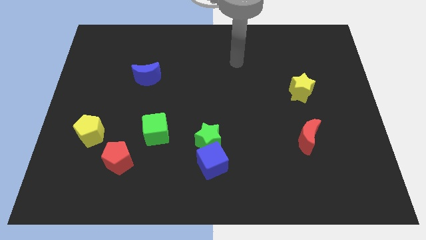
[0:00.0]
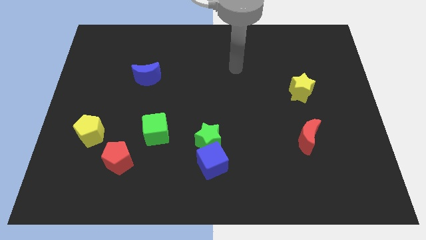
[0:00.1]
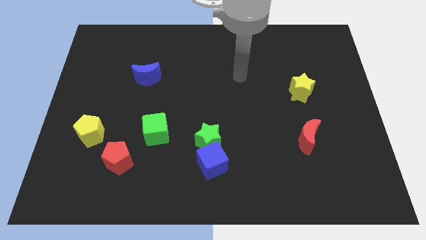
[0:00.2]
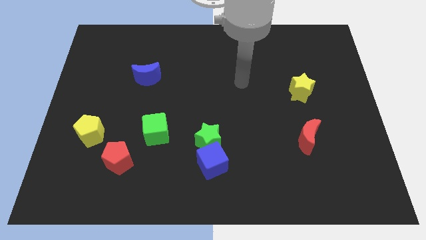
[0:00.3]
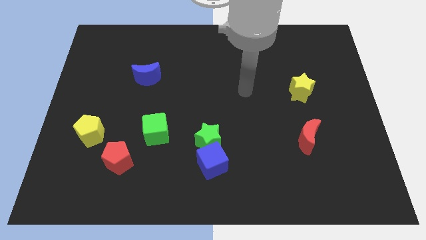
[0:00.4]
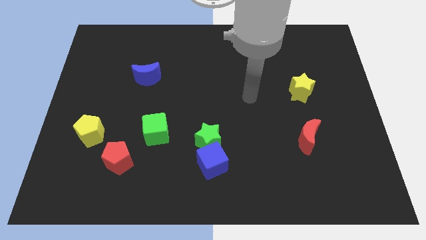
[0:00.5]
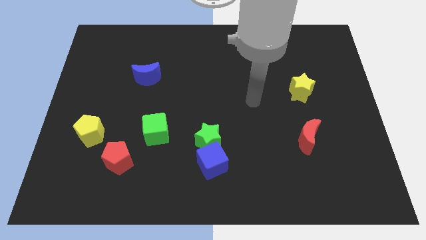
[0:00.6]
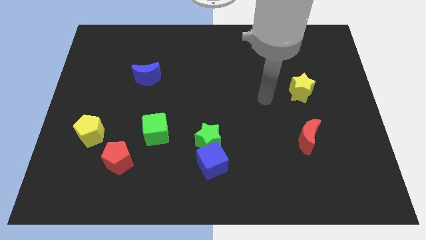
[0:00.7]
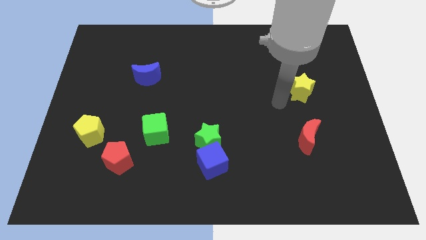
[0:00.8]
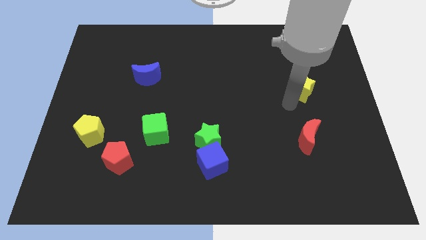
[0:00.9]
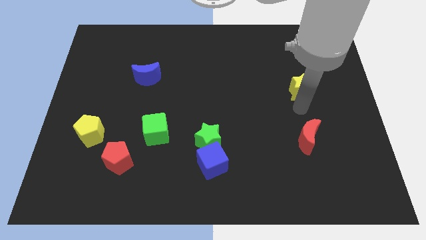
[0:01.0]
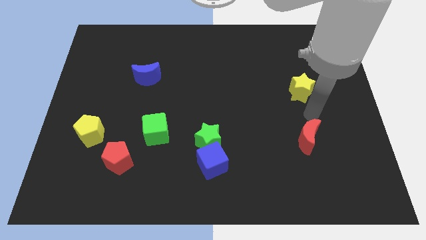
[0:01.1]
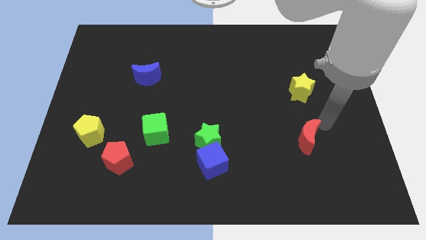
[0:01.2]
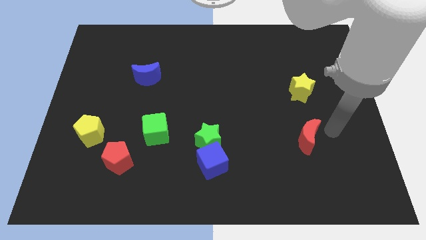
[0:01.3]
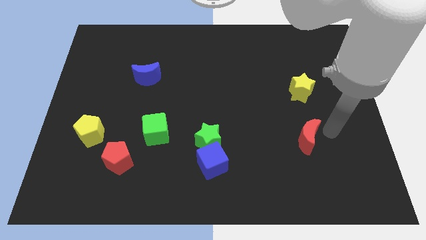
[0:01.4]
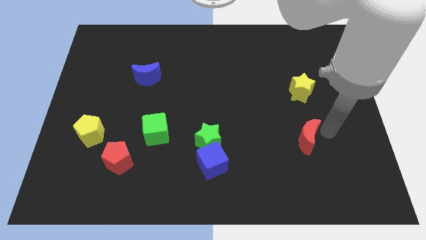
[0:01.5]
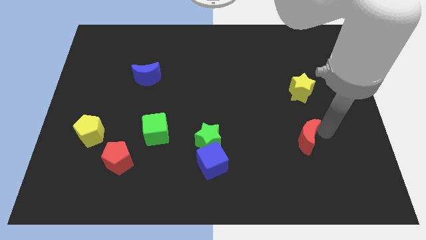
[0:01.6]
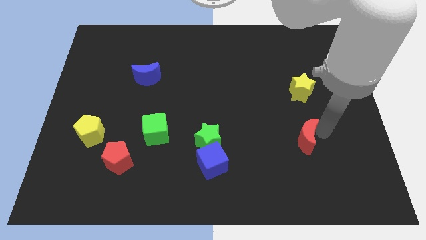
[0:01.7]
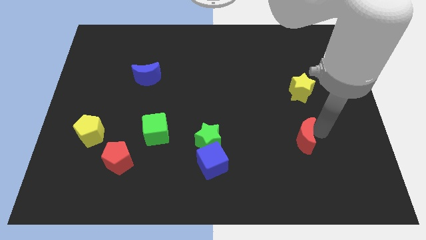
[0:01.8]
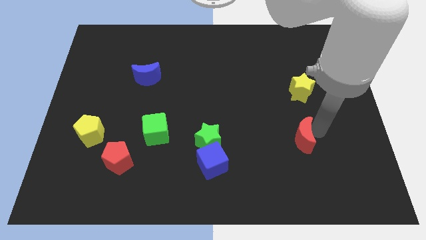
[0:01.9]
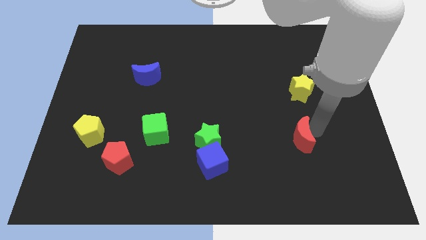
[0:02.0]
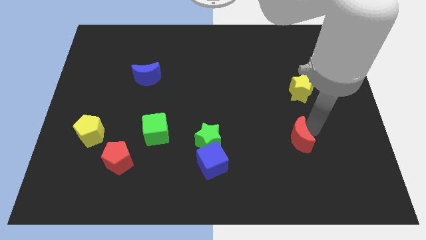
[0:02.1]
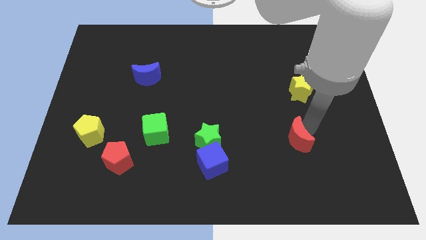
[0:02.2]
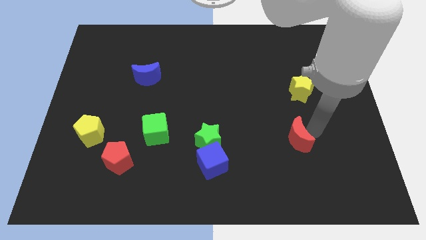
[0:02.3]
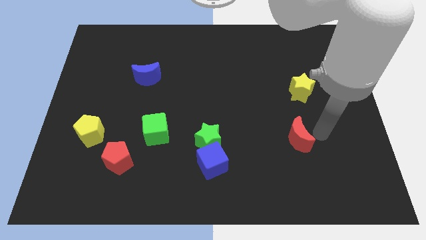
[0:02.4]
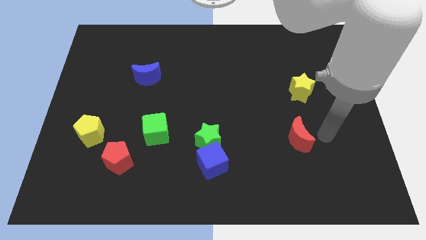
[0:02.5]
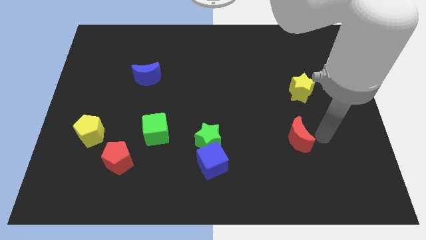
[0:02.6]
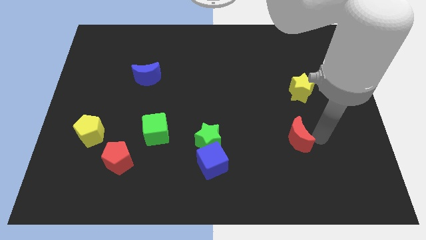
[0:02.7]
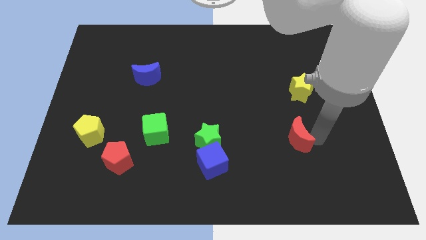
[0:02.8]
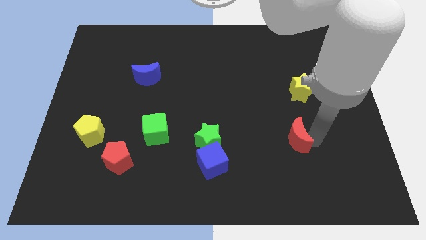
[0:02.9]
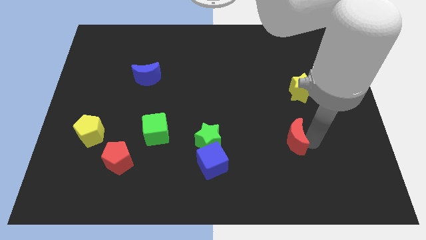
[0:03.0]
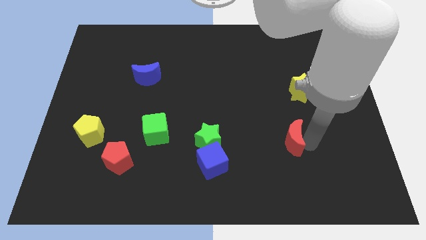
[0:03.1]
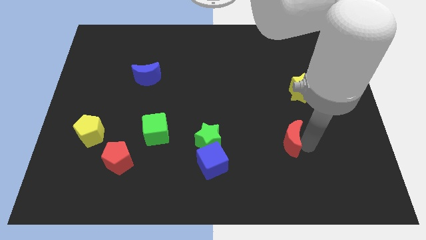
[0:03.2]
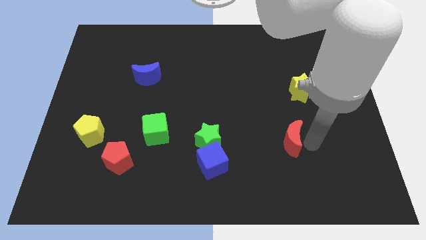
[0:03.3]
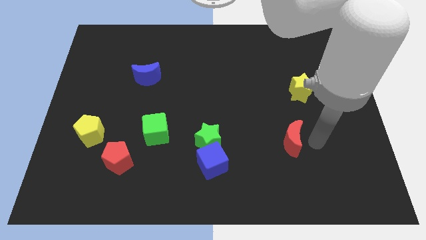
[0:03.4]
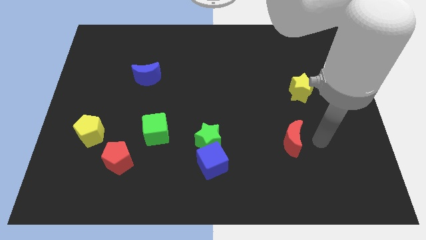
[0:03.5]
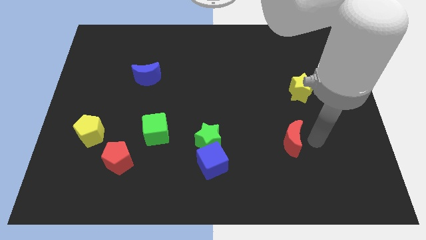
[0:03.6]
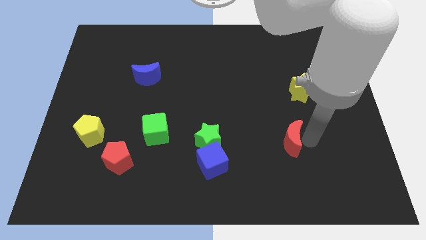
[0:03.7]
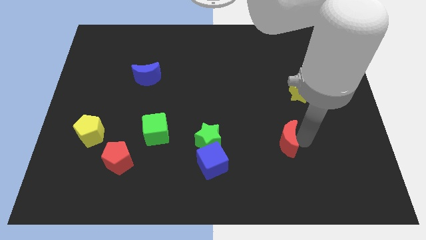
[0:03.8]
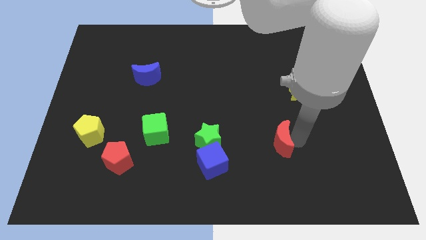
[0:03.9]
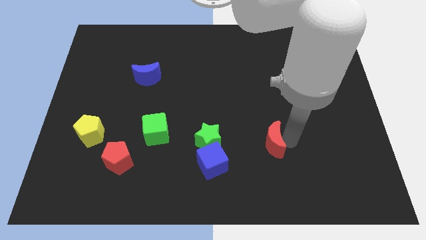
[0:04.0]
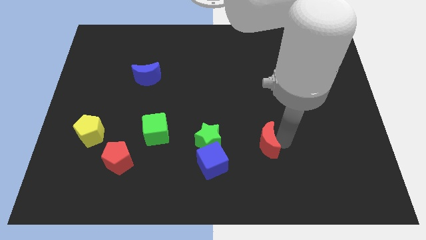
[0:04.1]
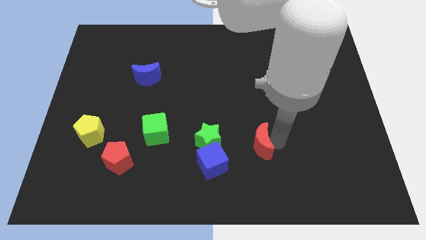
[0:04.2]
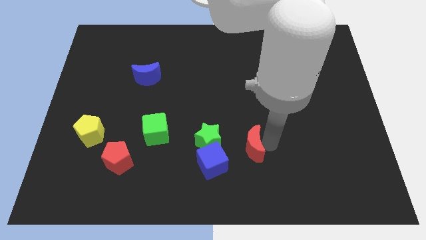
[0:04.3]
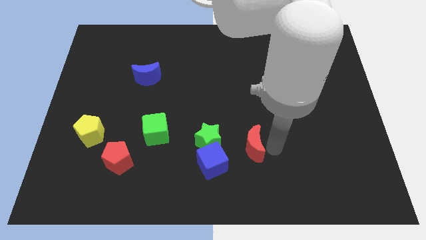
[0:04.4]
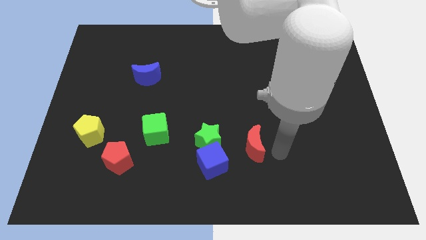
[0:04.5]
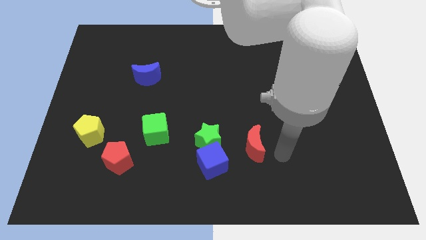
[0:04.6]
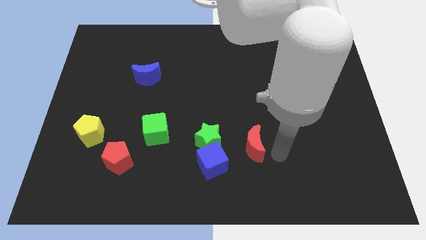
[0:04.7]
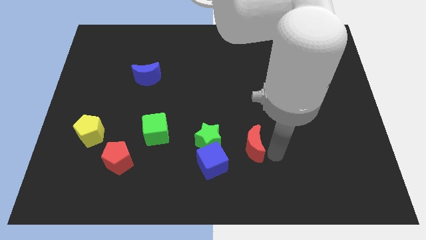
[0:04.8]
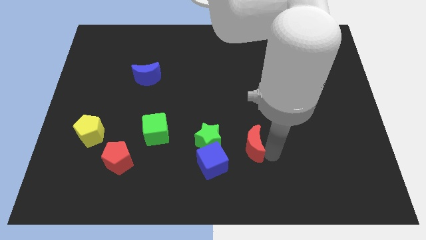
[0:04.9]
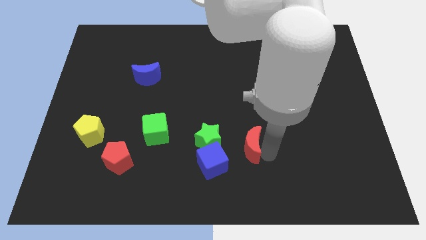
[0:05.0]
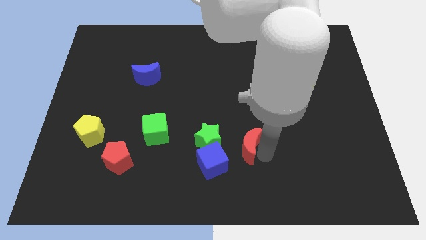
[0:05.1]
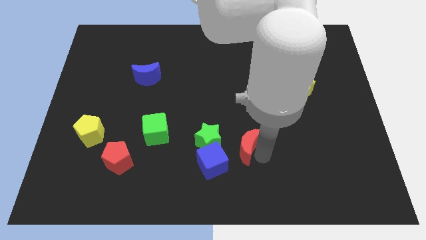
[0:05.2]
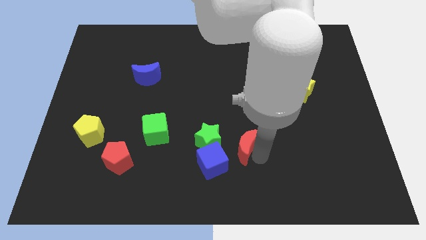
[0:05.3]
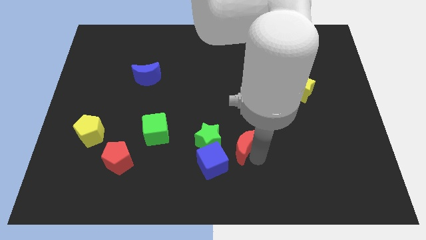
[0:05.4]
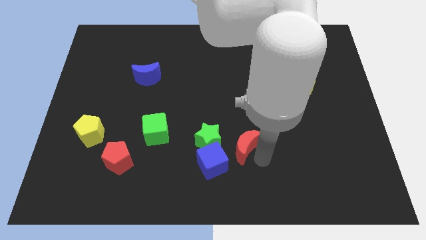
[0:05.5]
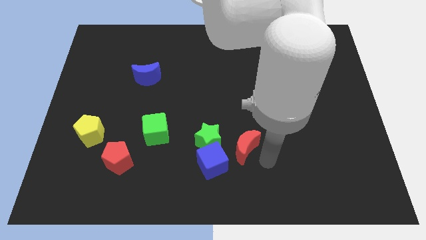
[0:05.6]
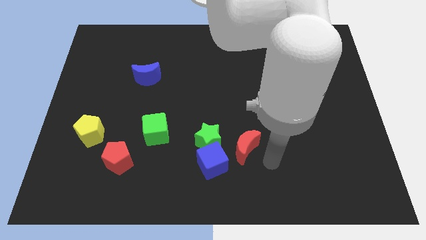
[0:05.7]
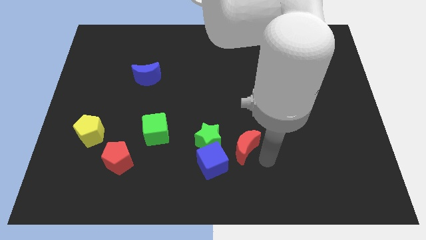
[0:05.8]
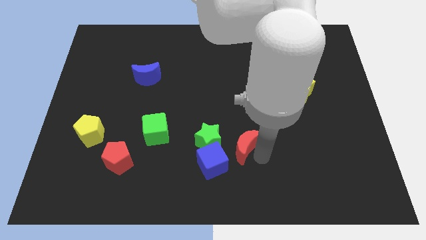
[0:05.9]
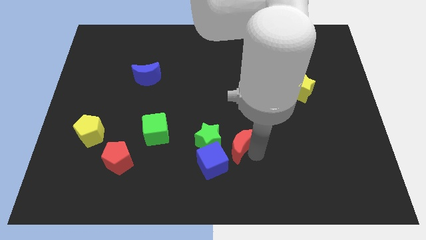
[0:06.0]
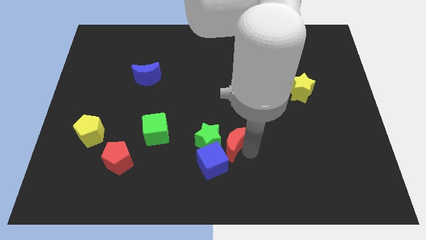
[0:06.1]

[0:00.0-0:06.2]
push the red moon towards the green star

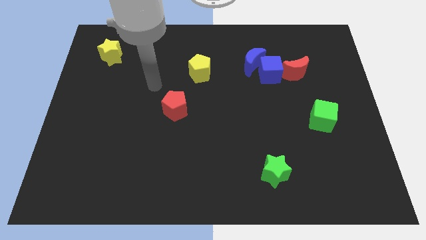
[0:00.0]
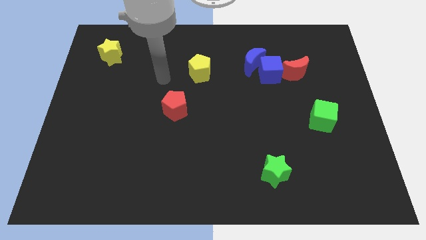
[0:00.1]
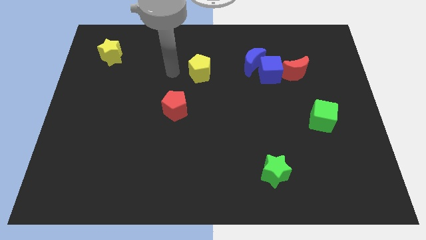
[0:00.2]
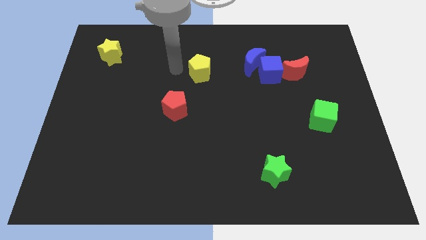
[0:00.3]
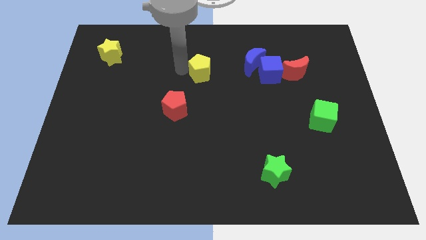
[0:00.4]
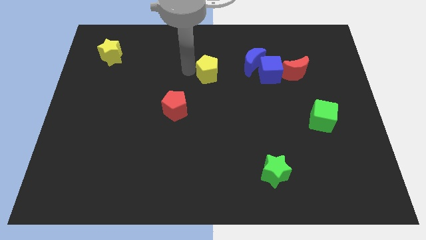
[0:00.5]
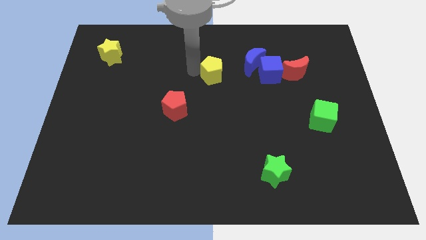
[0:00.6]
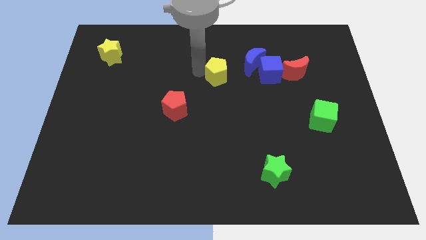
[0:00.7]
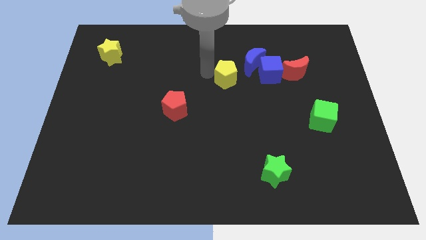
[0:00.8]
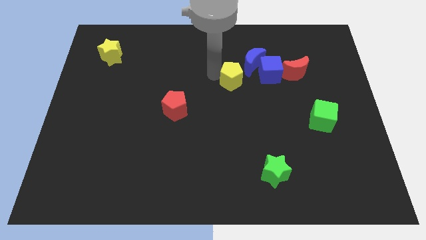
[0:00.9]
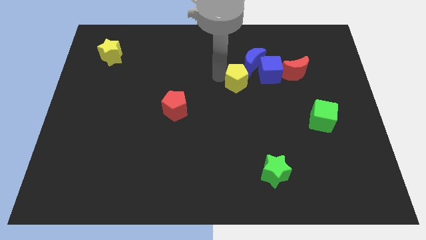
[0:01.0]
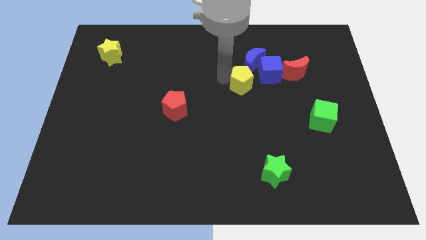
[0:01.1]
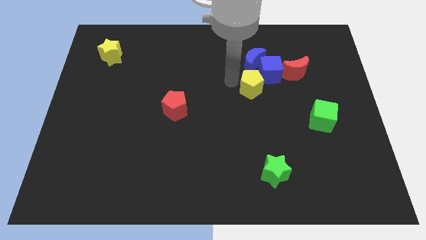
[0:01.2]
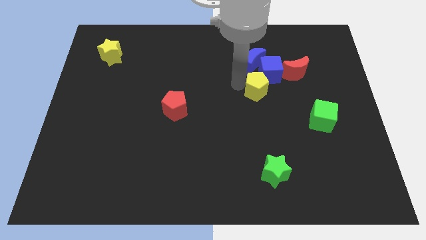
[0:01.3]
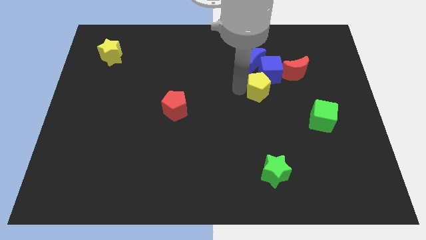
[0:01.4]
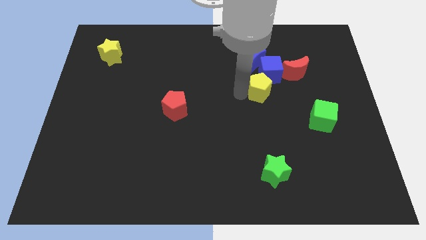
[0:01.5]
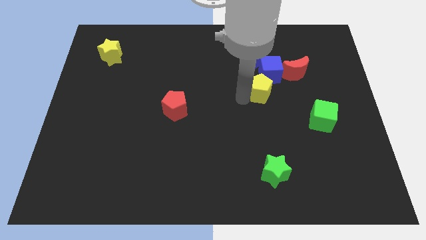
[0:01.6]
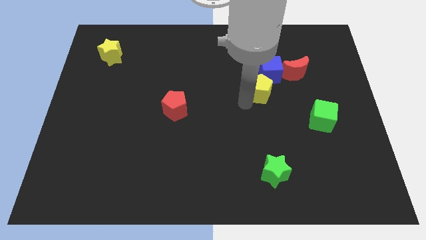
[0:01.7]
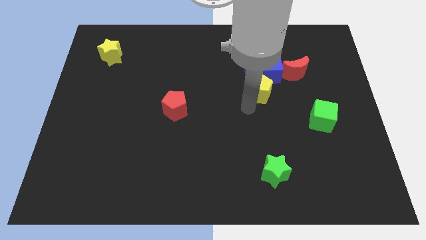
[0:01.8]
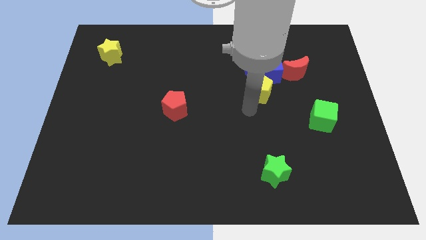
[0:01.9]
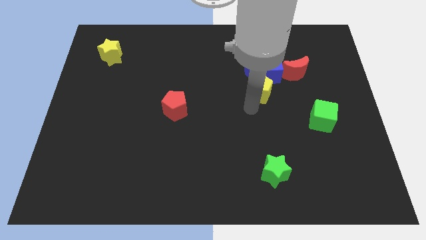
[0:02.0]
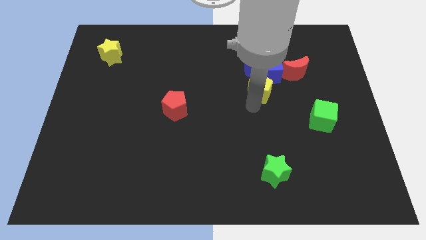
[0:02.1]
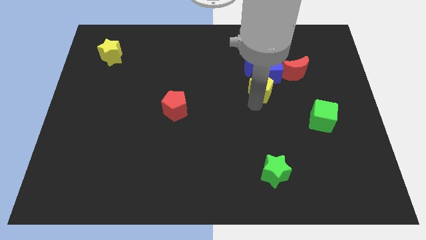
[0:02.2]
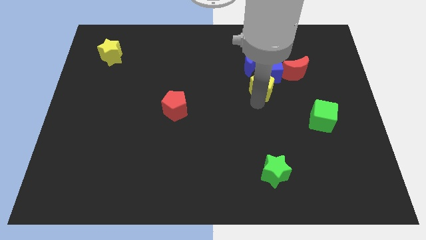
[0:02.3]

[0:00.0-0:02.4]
move the yellow pentagon close to the blue cube
